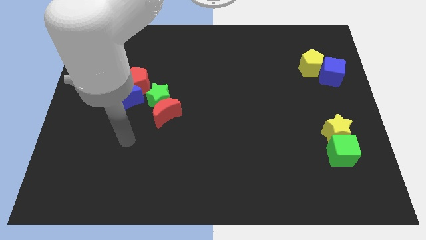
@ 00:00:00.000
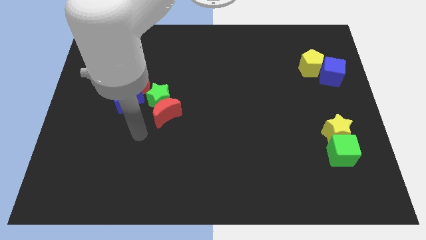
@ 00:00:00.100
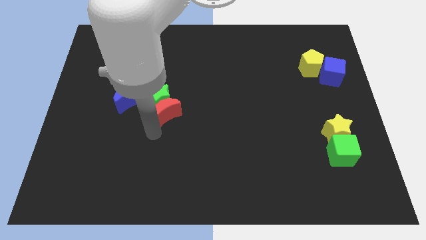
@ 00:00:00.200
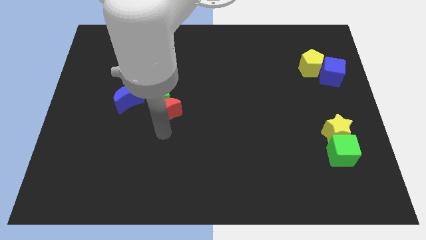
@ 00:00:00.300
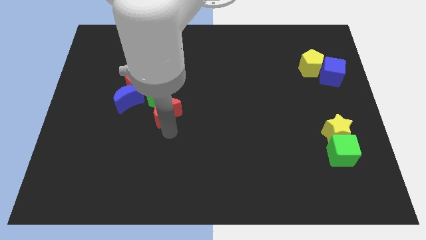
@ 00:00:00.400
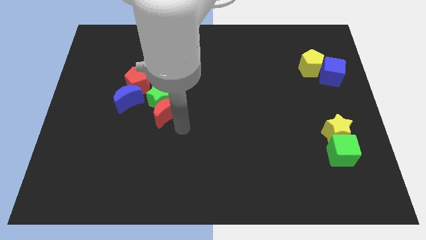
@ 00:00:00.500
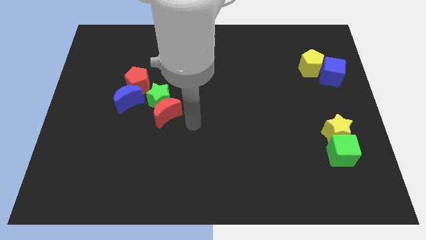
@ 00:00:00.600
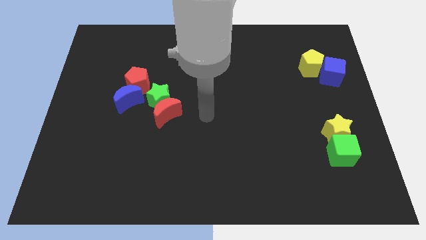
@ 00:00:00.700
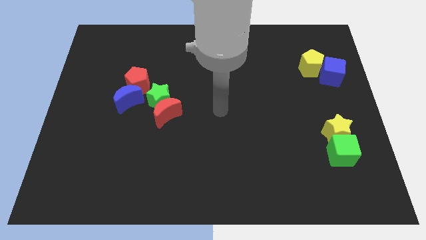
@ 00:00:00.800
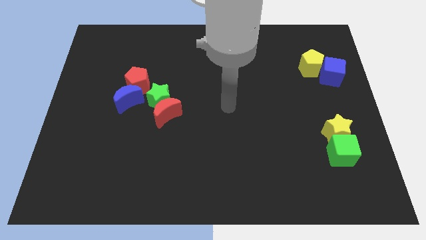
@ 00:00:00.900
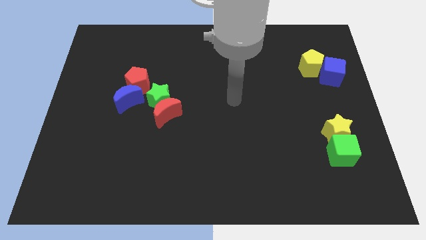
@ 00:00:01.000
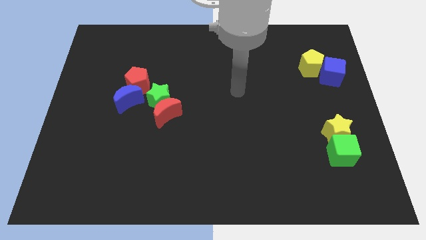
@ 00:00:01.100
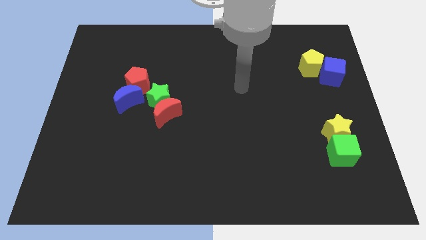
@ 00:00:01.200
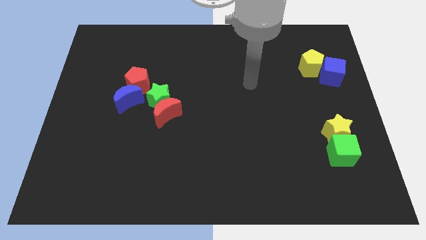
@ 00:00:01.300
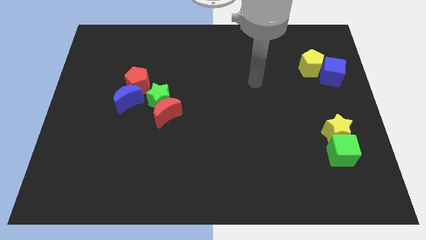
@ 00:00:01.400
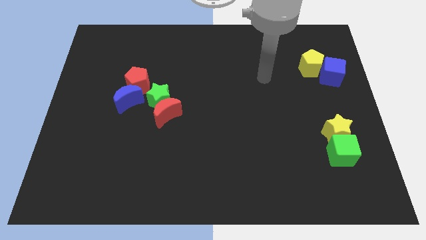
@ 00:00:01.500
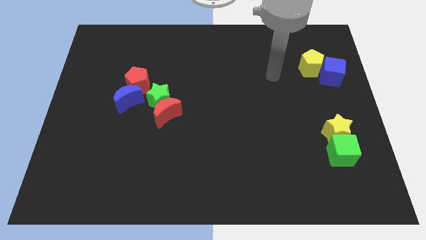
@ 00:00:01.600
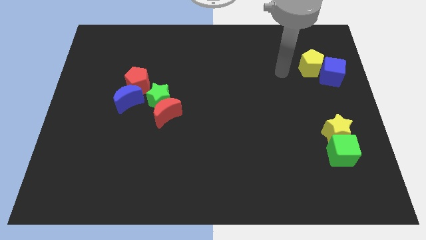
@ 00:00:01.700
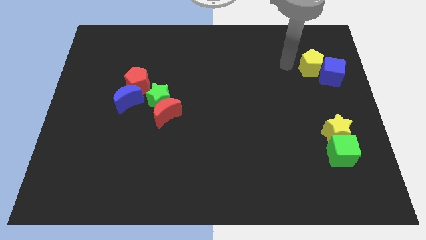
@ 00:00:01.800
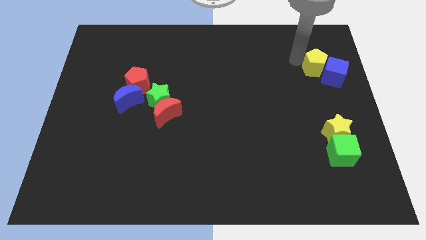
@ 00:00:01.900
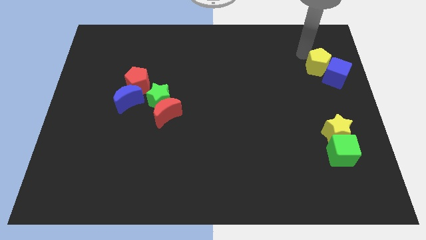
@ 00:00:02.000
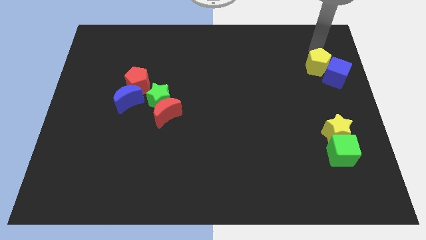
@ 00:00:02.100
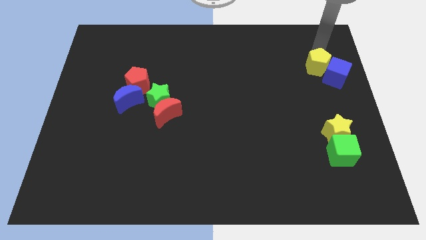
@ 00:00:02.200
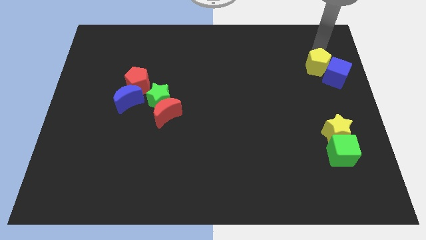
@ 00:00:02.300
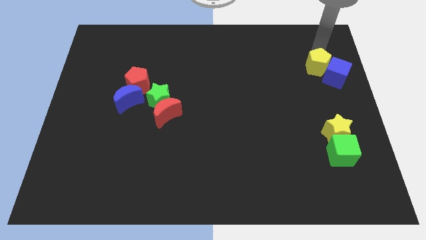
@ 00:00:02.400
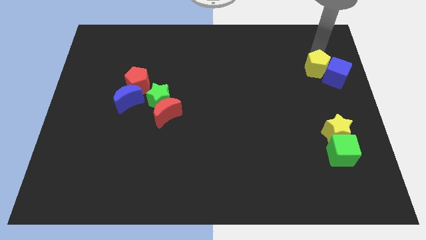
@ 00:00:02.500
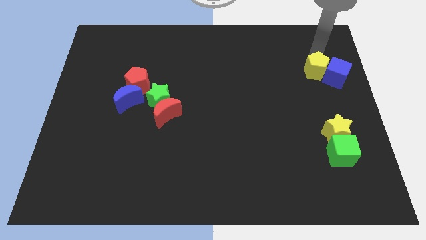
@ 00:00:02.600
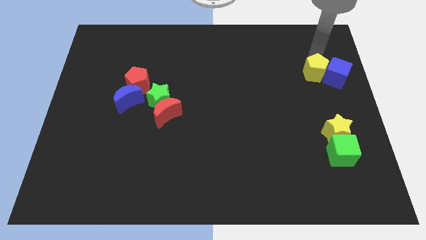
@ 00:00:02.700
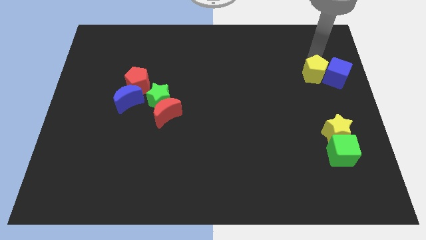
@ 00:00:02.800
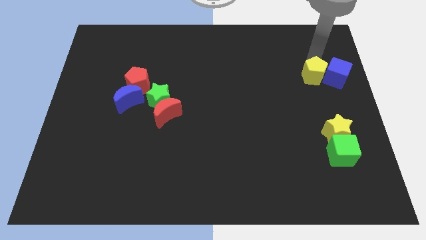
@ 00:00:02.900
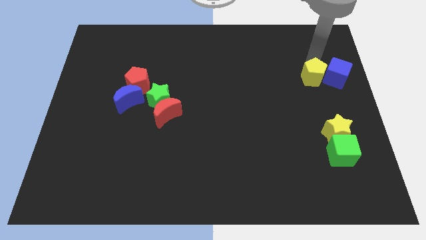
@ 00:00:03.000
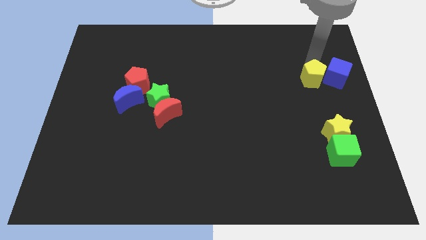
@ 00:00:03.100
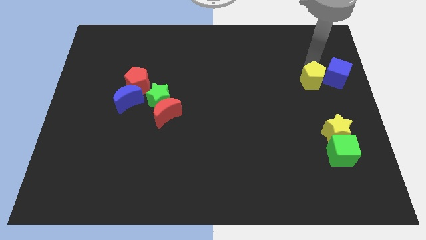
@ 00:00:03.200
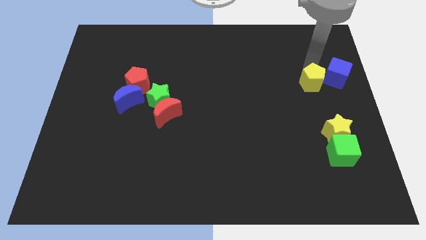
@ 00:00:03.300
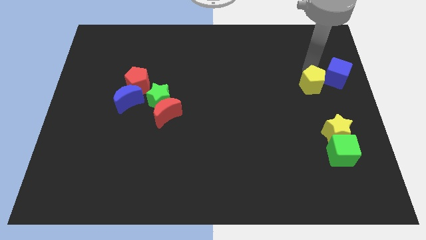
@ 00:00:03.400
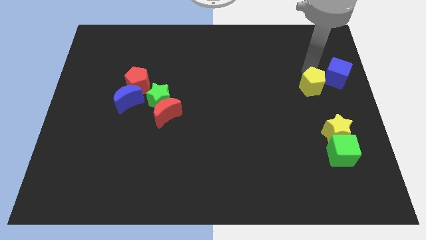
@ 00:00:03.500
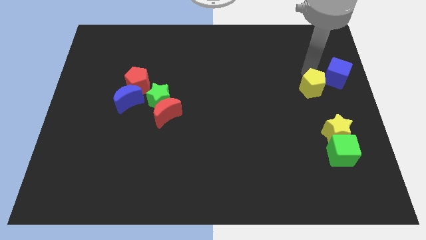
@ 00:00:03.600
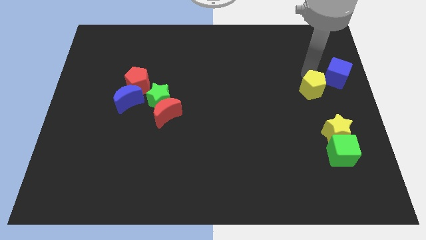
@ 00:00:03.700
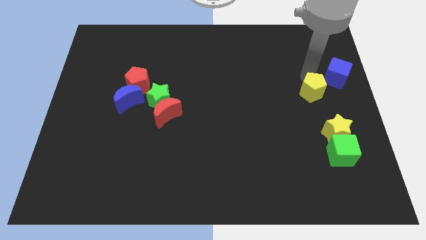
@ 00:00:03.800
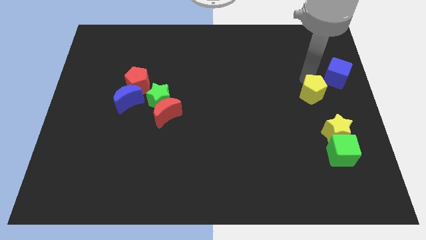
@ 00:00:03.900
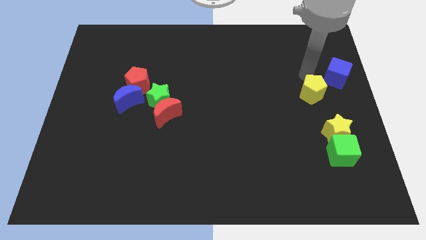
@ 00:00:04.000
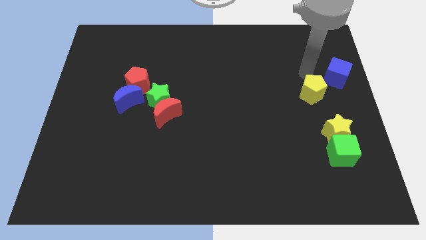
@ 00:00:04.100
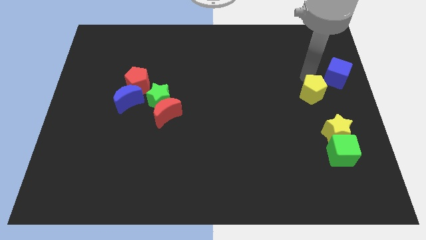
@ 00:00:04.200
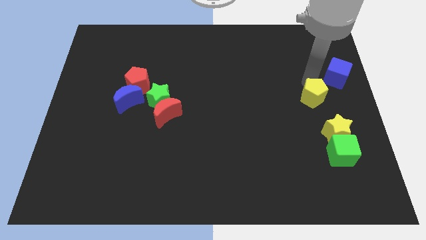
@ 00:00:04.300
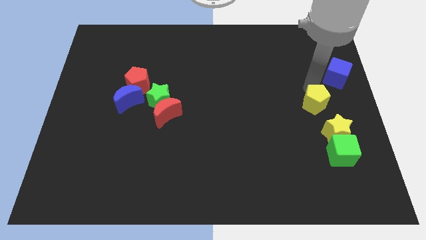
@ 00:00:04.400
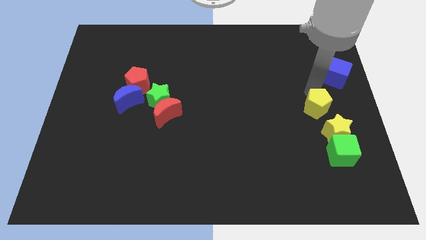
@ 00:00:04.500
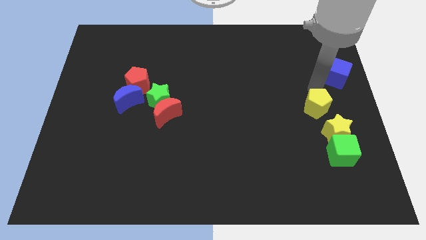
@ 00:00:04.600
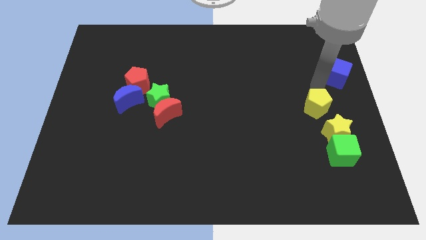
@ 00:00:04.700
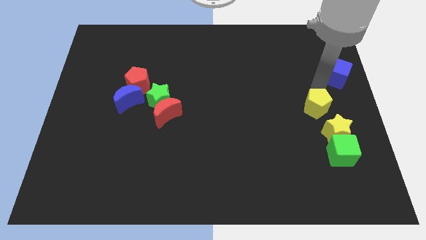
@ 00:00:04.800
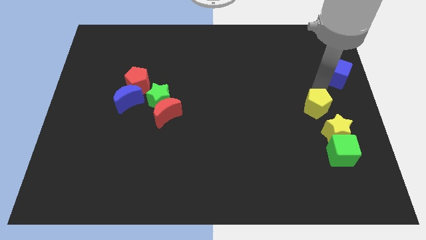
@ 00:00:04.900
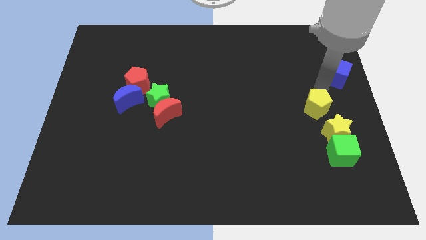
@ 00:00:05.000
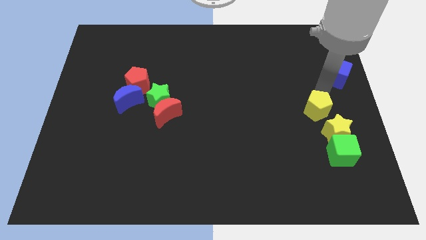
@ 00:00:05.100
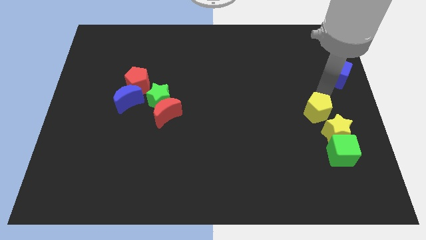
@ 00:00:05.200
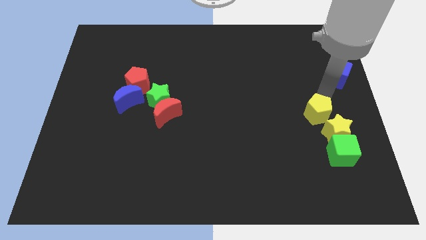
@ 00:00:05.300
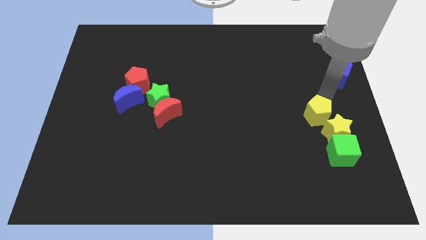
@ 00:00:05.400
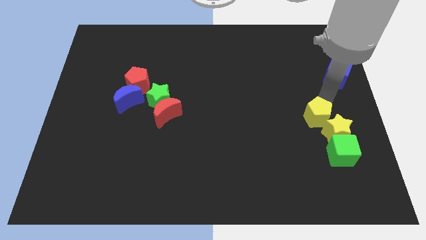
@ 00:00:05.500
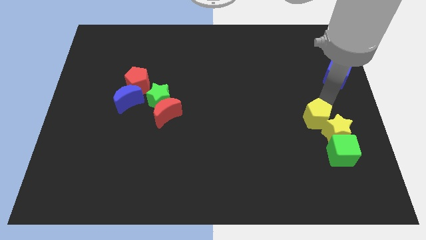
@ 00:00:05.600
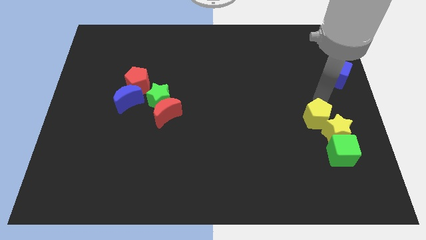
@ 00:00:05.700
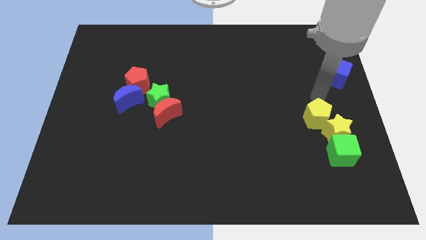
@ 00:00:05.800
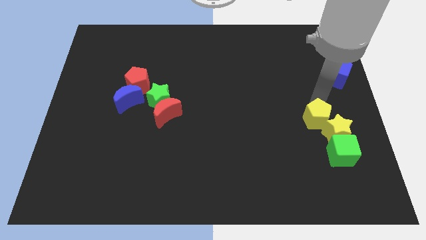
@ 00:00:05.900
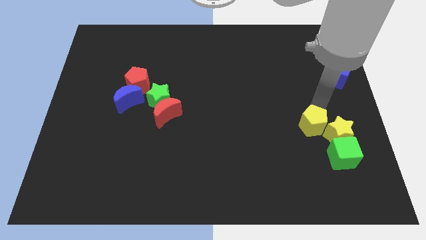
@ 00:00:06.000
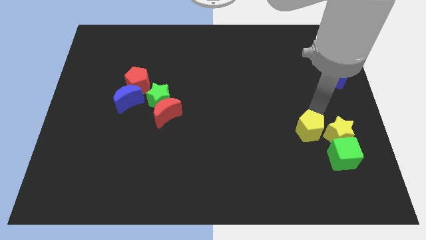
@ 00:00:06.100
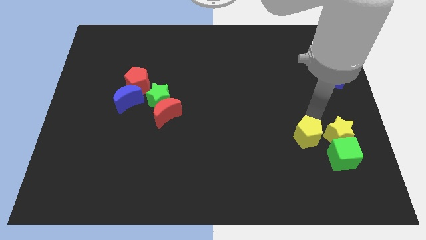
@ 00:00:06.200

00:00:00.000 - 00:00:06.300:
push the yellow pentagon downwards

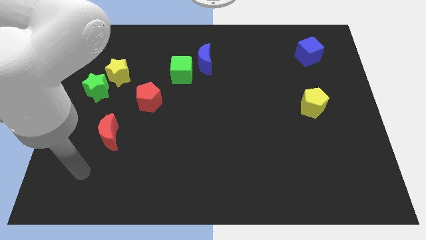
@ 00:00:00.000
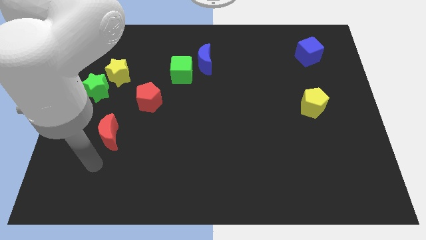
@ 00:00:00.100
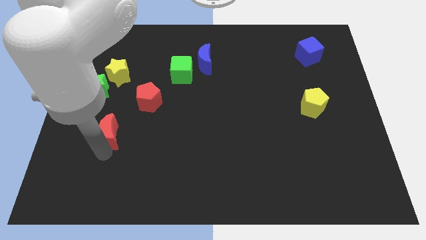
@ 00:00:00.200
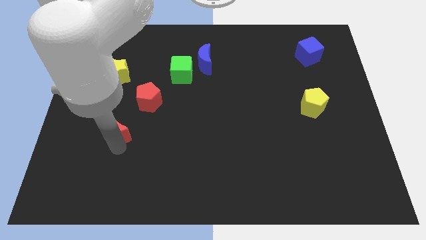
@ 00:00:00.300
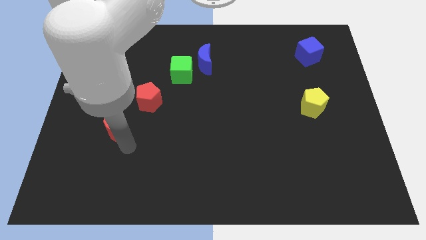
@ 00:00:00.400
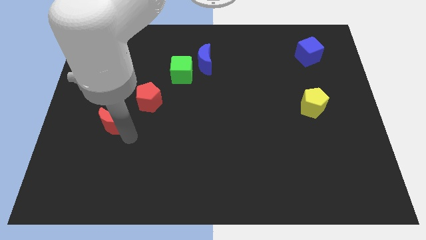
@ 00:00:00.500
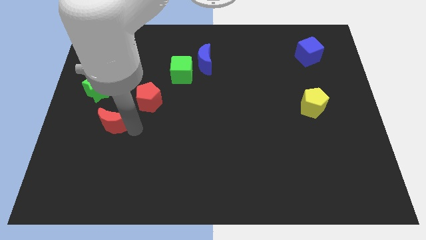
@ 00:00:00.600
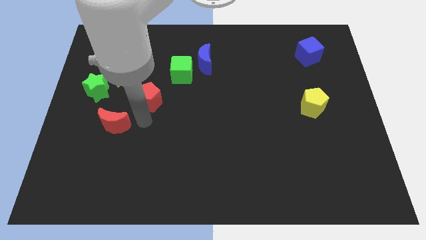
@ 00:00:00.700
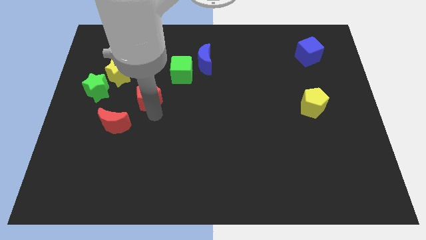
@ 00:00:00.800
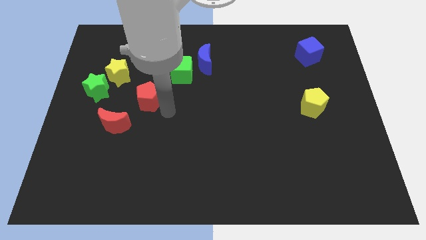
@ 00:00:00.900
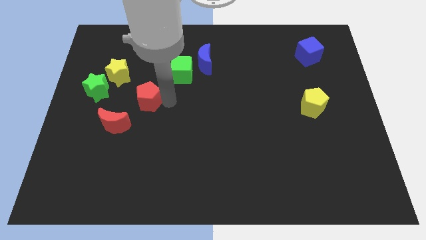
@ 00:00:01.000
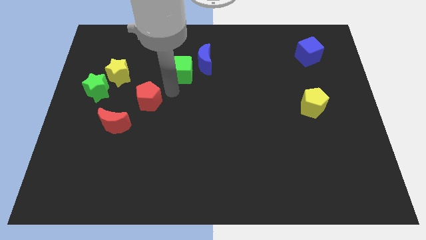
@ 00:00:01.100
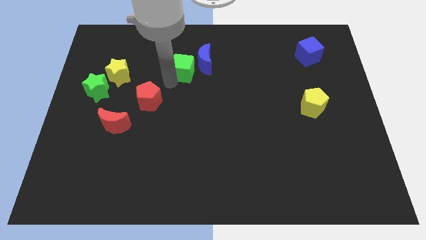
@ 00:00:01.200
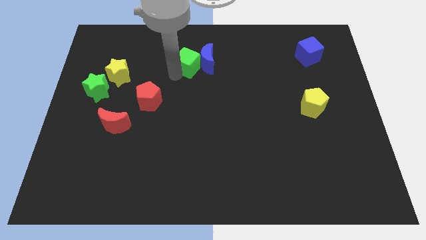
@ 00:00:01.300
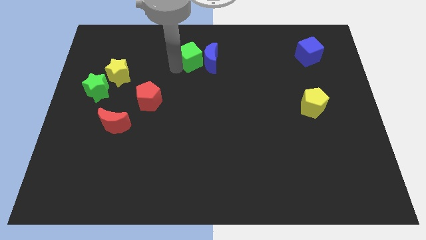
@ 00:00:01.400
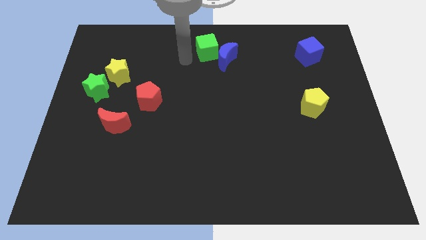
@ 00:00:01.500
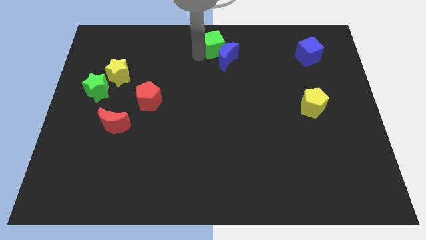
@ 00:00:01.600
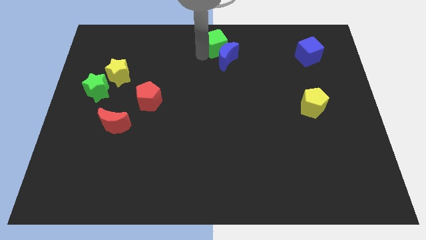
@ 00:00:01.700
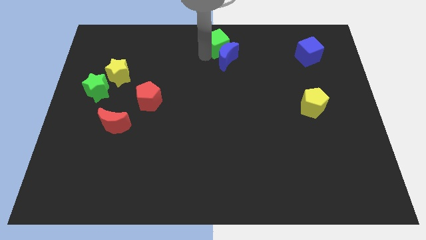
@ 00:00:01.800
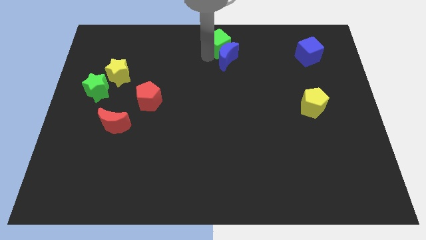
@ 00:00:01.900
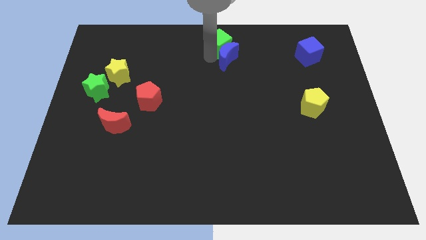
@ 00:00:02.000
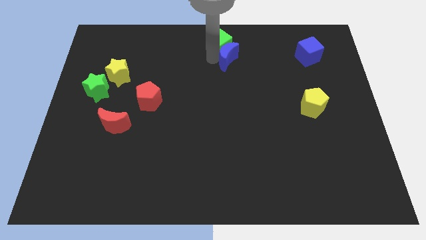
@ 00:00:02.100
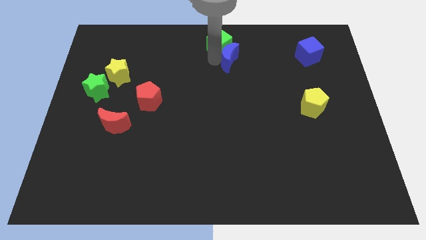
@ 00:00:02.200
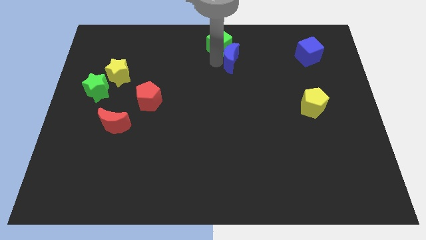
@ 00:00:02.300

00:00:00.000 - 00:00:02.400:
push the blue moon to the right a little
